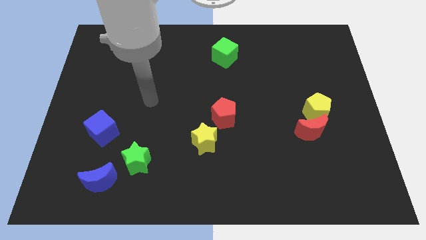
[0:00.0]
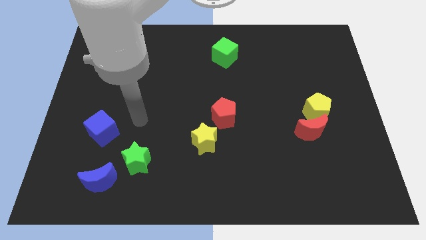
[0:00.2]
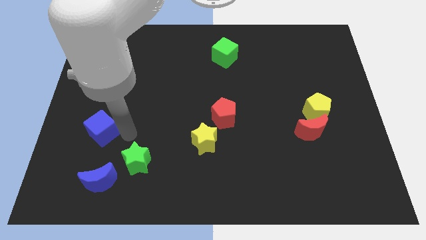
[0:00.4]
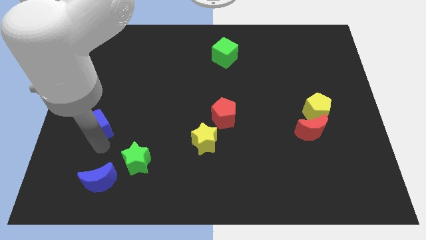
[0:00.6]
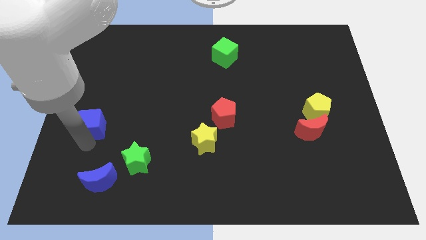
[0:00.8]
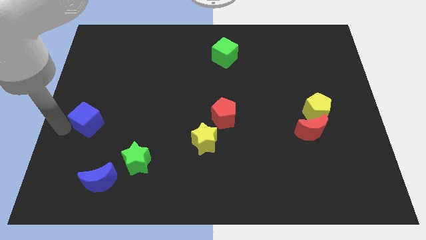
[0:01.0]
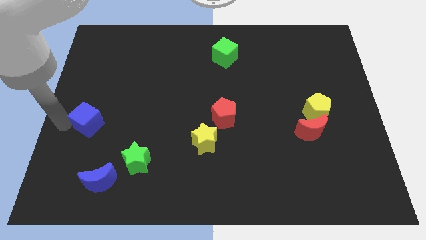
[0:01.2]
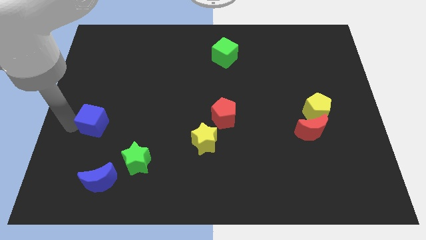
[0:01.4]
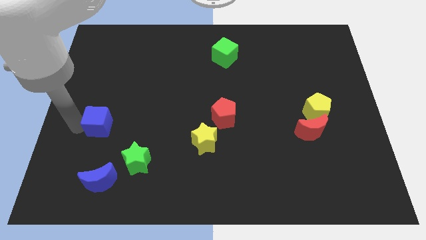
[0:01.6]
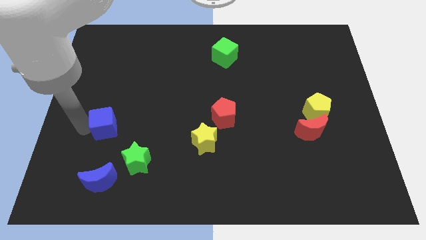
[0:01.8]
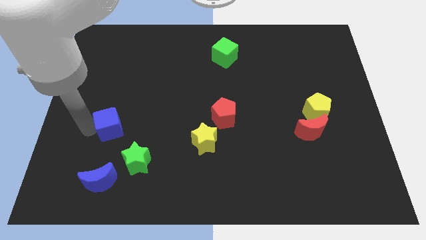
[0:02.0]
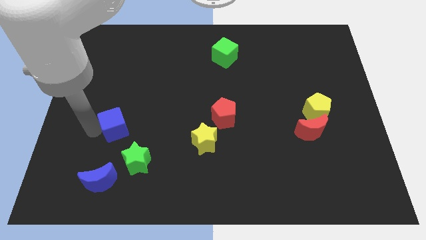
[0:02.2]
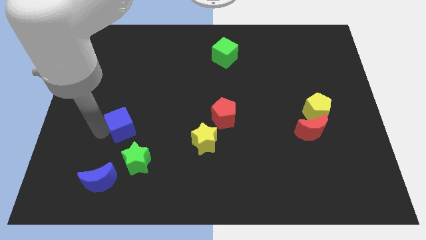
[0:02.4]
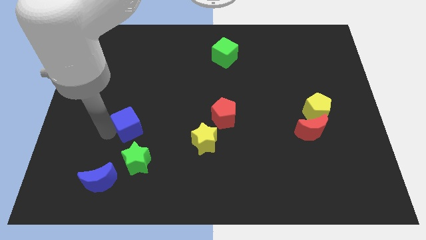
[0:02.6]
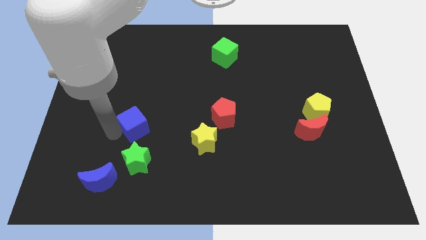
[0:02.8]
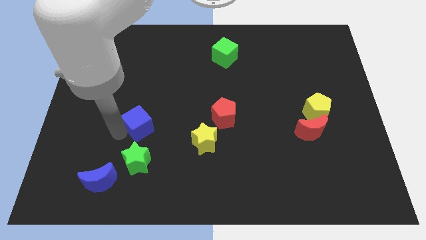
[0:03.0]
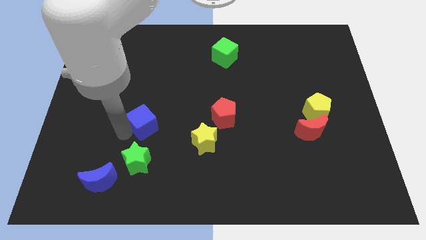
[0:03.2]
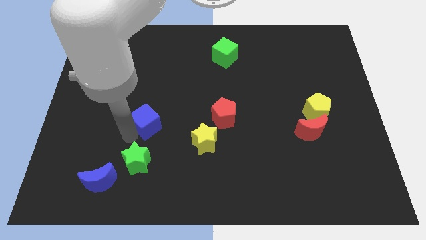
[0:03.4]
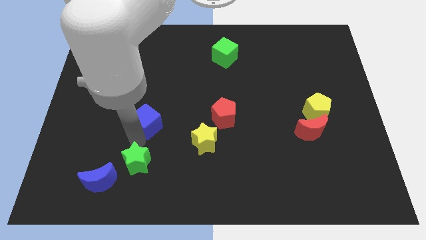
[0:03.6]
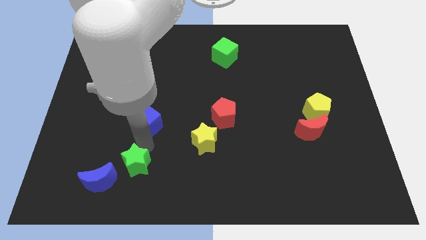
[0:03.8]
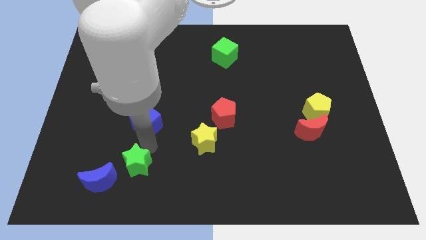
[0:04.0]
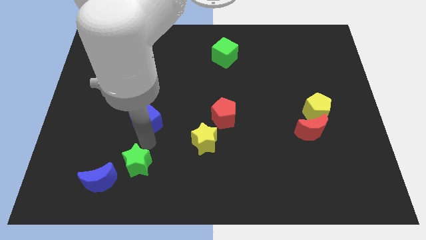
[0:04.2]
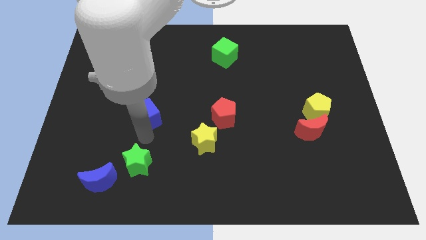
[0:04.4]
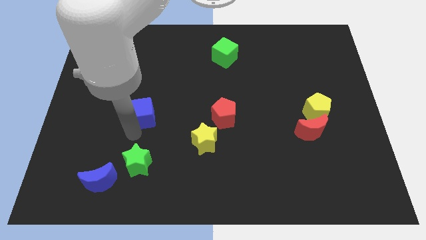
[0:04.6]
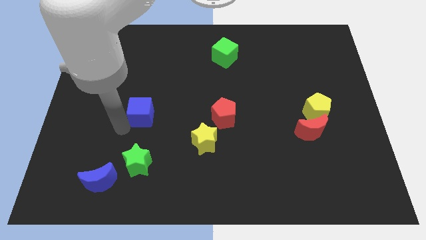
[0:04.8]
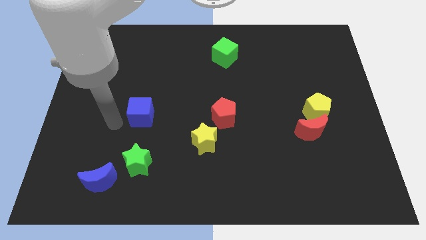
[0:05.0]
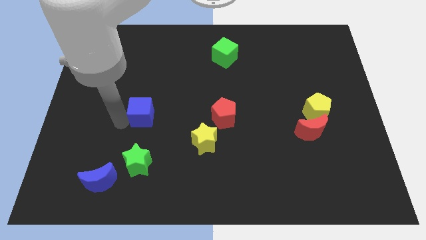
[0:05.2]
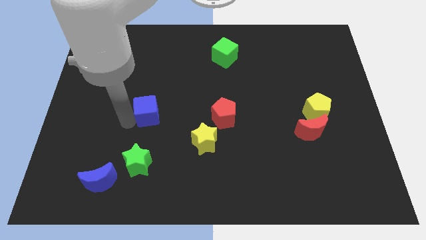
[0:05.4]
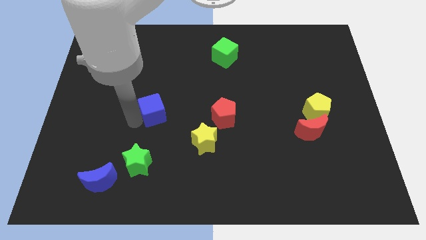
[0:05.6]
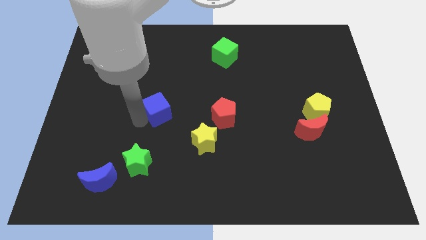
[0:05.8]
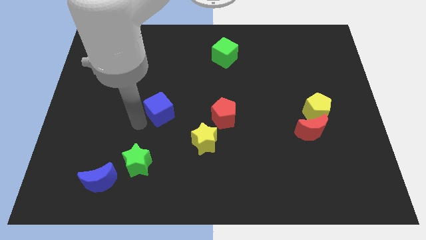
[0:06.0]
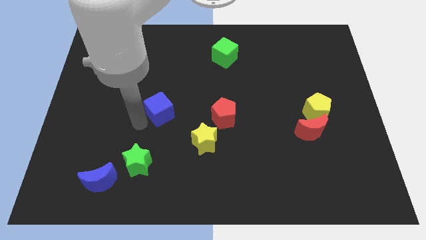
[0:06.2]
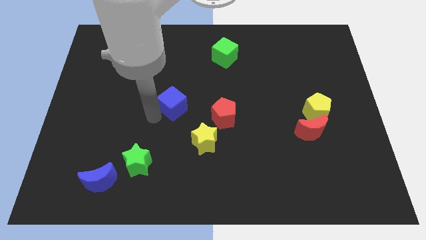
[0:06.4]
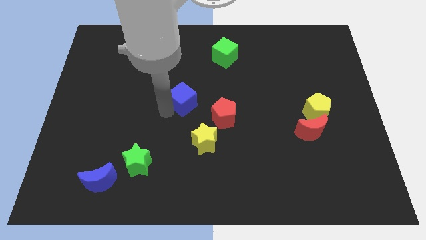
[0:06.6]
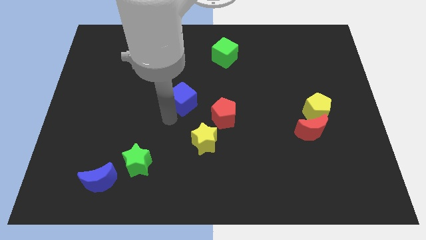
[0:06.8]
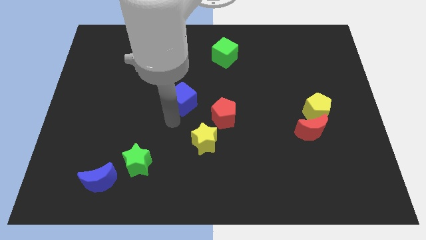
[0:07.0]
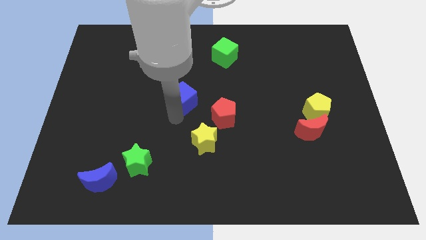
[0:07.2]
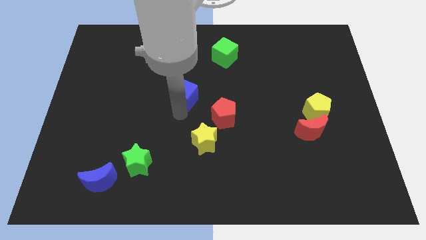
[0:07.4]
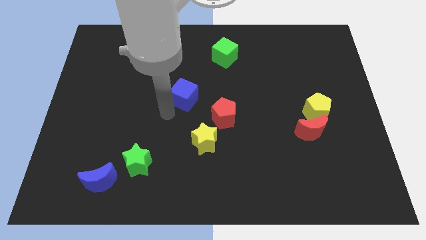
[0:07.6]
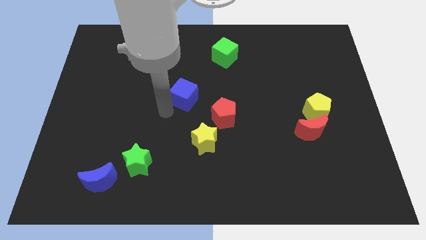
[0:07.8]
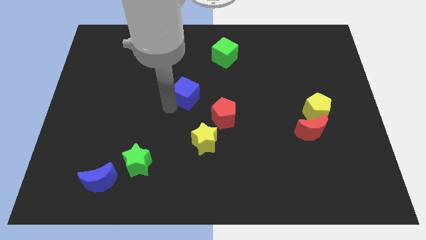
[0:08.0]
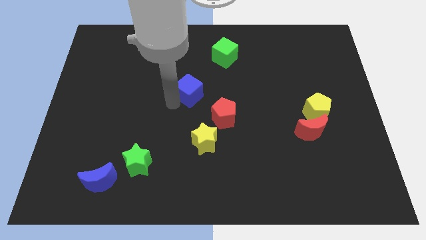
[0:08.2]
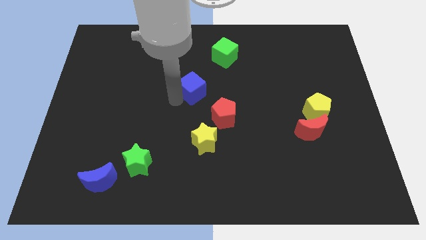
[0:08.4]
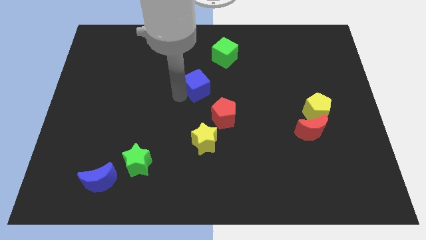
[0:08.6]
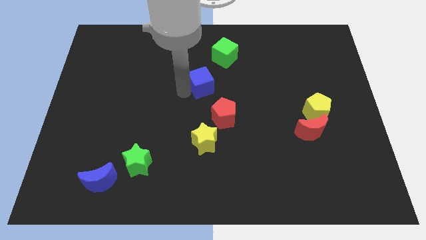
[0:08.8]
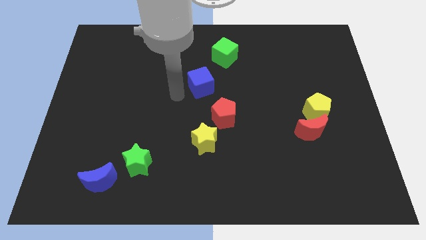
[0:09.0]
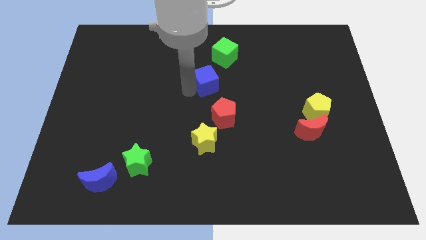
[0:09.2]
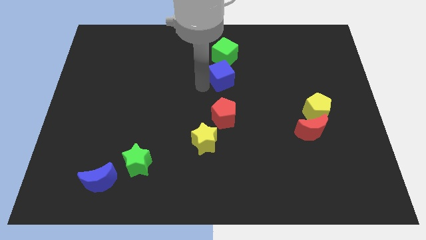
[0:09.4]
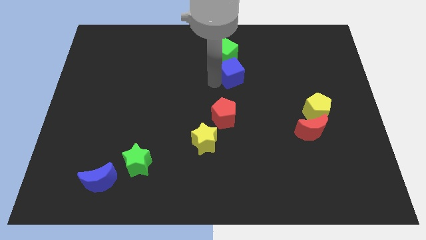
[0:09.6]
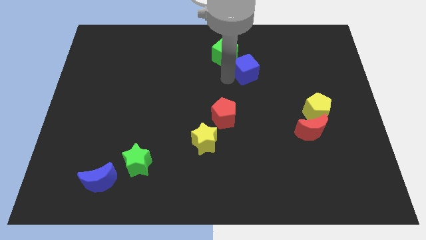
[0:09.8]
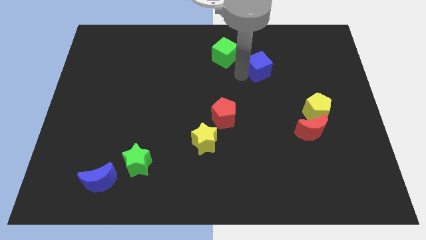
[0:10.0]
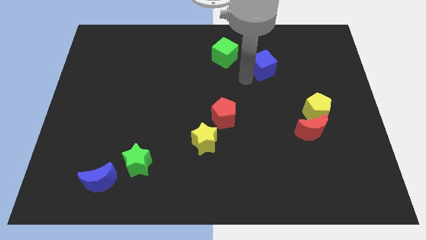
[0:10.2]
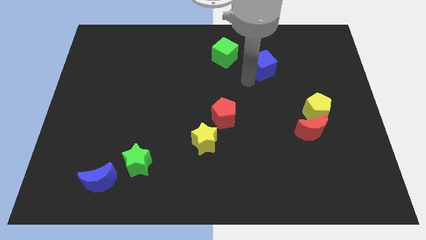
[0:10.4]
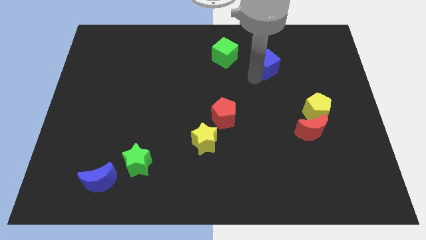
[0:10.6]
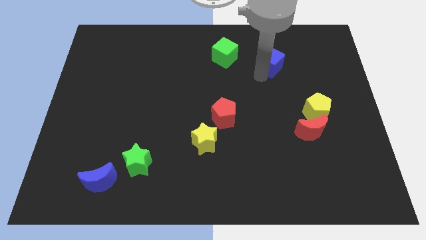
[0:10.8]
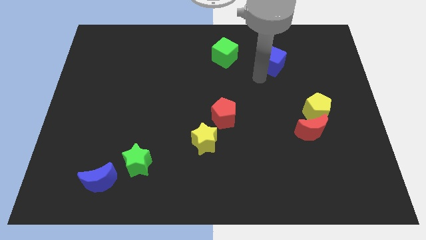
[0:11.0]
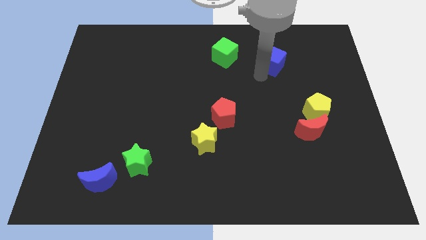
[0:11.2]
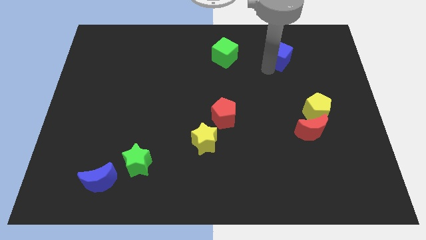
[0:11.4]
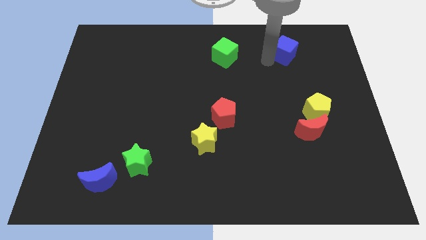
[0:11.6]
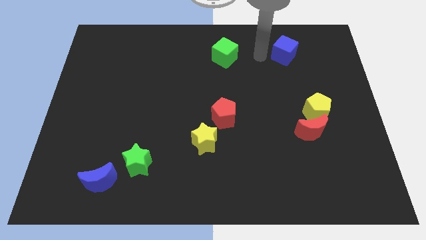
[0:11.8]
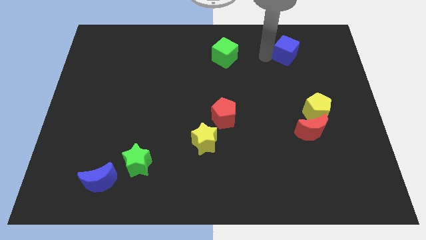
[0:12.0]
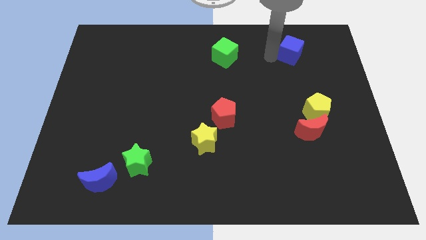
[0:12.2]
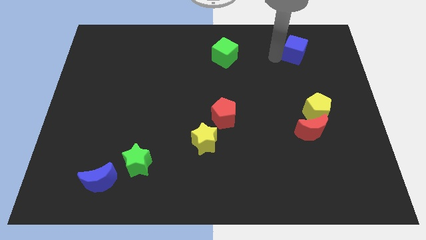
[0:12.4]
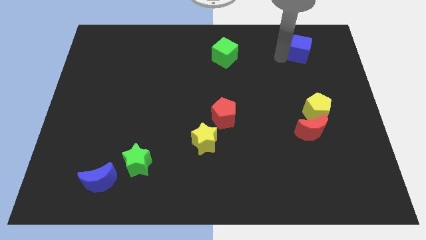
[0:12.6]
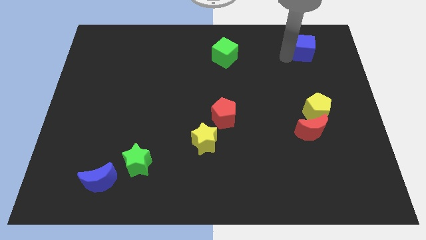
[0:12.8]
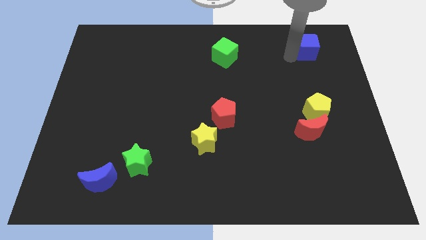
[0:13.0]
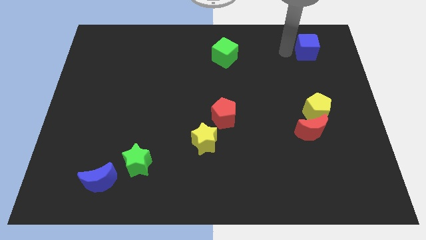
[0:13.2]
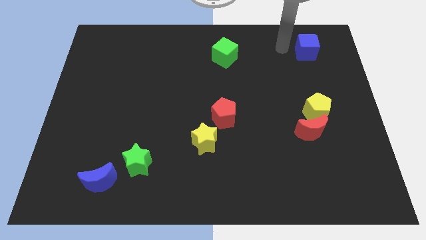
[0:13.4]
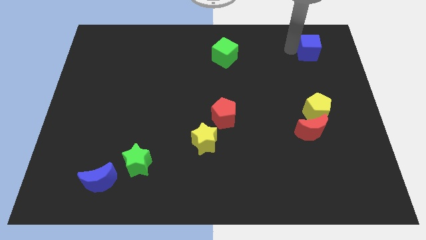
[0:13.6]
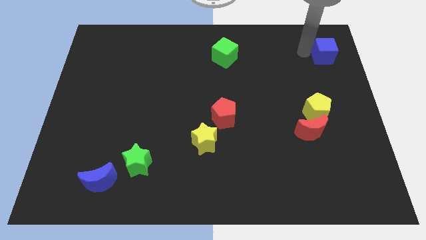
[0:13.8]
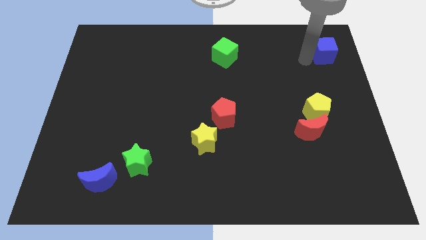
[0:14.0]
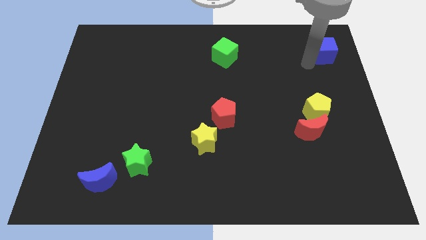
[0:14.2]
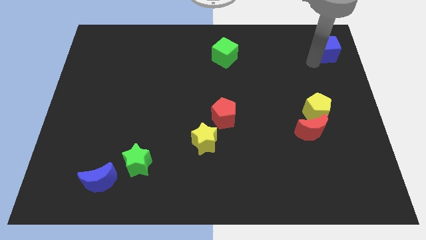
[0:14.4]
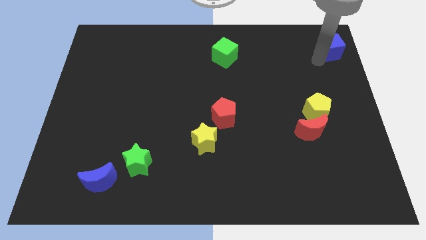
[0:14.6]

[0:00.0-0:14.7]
move the blue cube to the upper right corner
